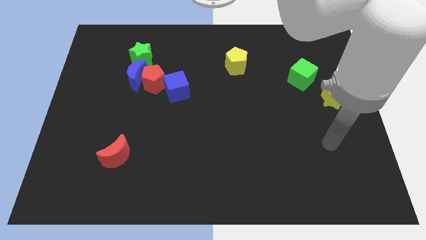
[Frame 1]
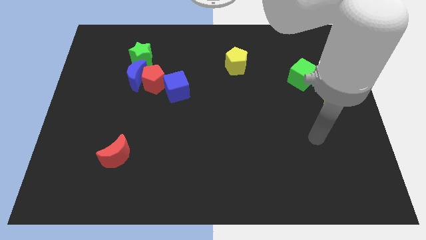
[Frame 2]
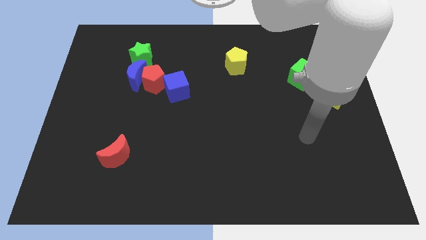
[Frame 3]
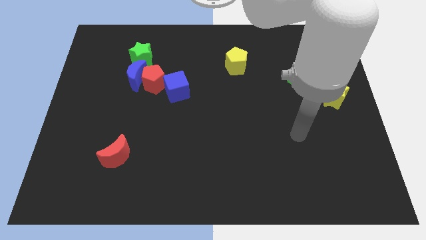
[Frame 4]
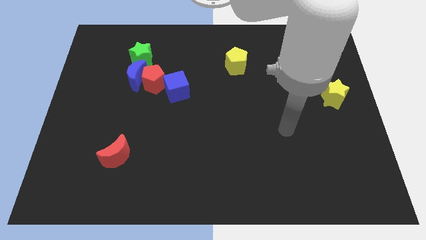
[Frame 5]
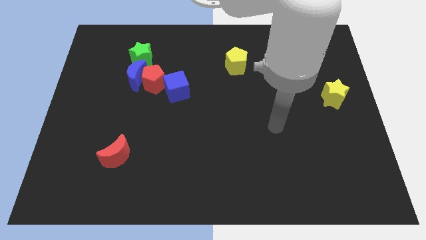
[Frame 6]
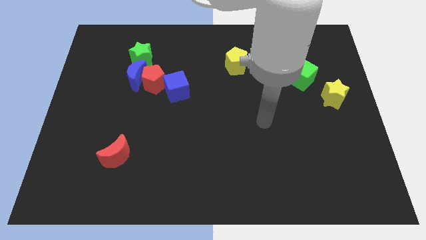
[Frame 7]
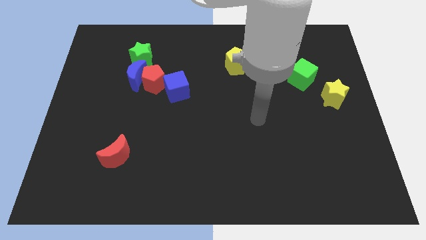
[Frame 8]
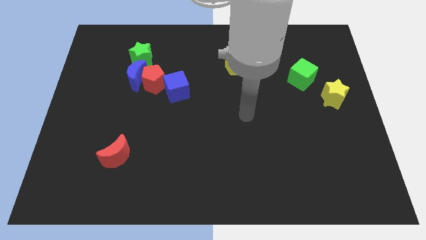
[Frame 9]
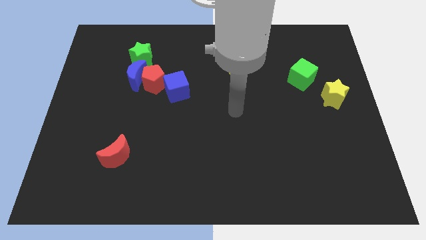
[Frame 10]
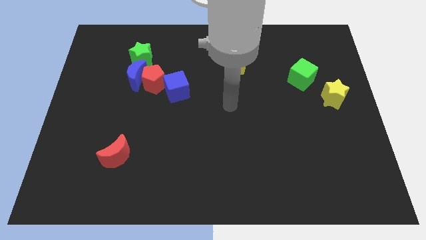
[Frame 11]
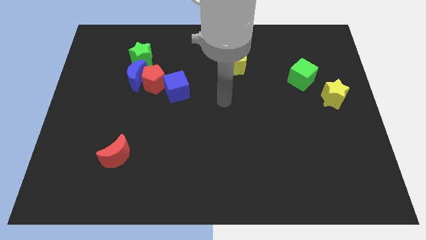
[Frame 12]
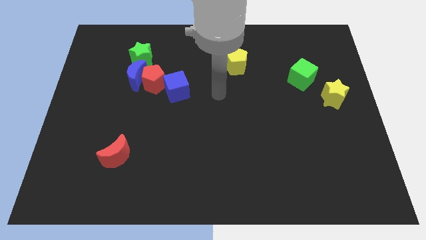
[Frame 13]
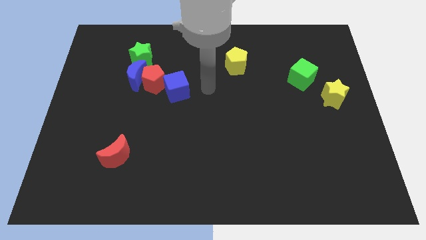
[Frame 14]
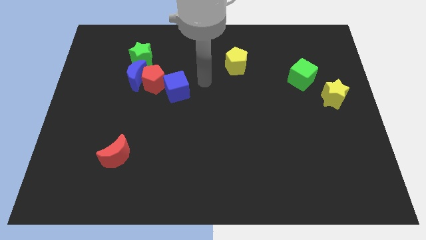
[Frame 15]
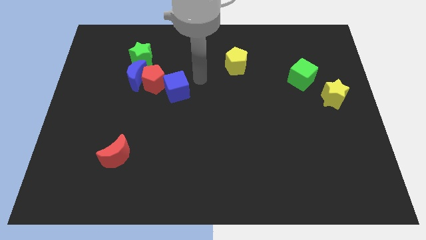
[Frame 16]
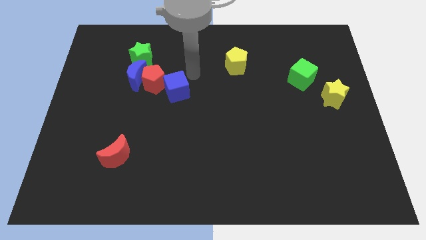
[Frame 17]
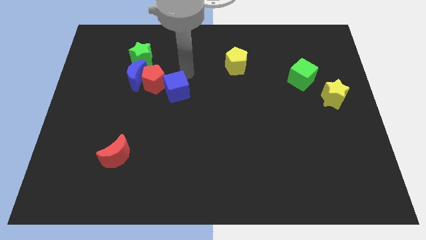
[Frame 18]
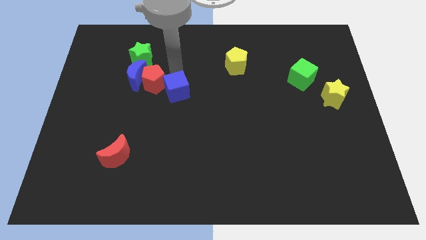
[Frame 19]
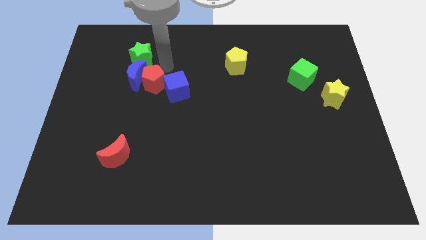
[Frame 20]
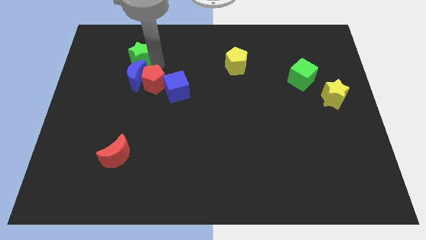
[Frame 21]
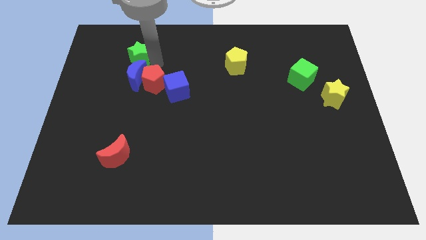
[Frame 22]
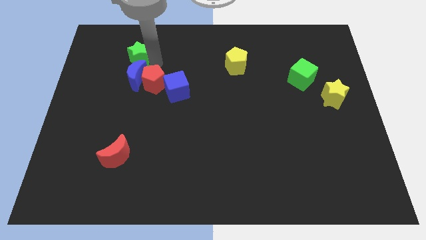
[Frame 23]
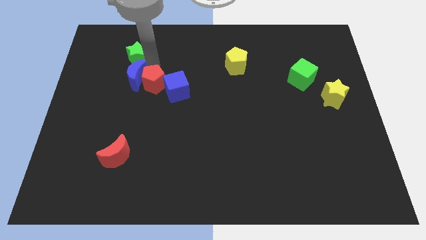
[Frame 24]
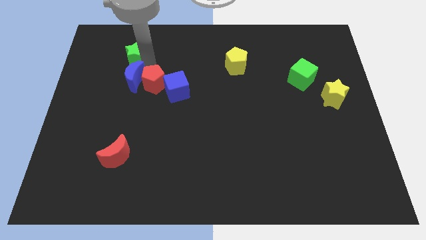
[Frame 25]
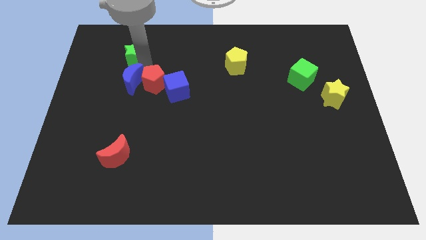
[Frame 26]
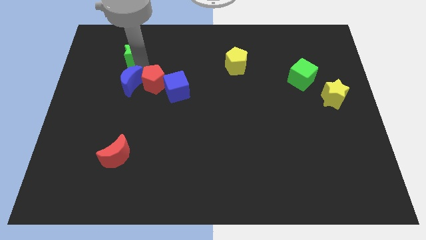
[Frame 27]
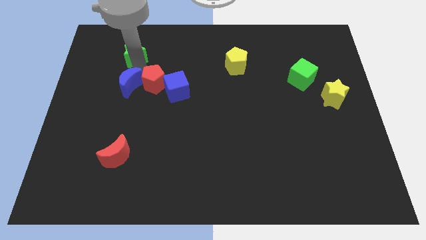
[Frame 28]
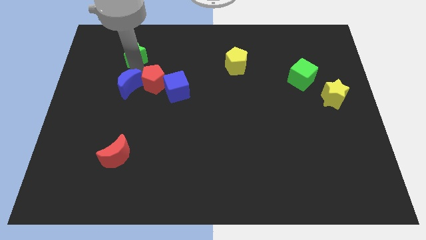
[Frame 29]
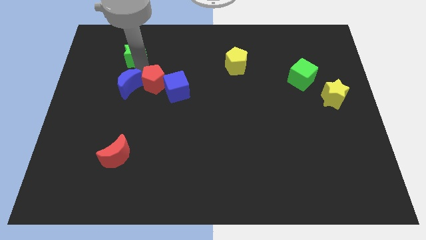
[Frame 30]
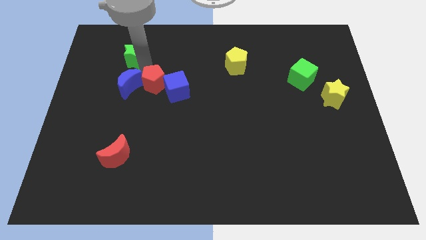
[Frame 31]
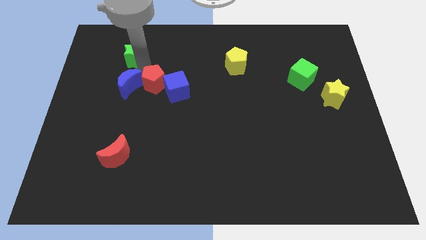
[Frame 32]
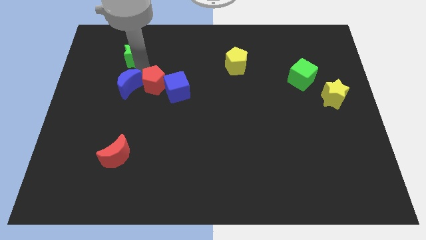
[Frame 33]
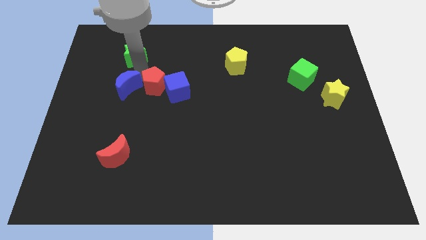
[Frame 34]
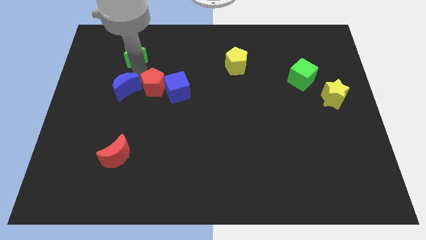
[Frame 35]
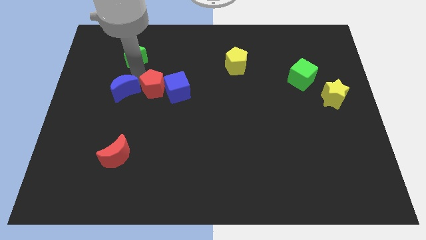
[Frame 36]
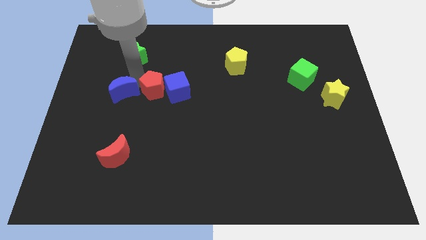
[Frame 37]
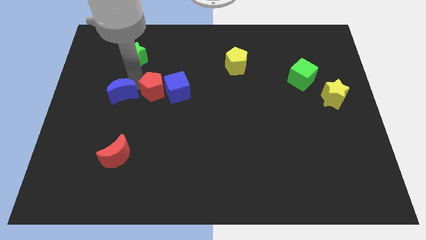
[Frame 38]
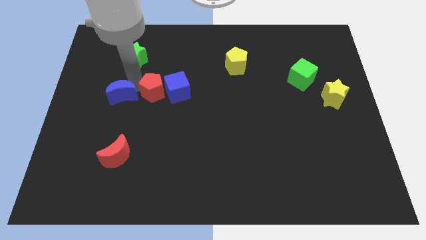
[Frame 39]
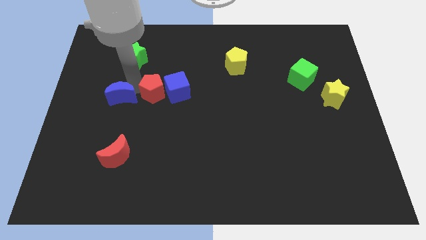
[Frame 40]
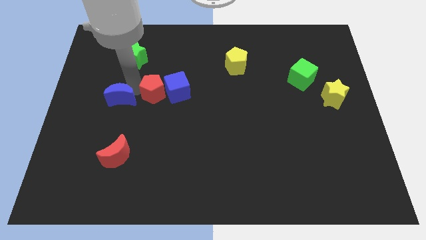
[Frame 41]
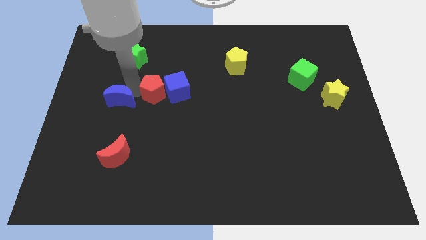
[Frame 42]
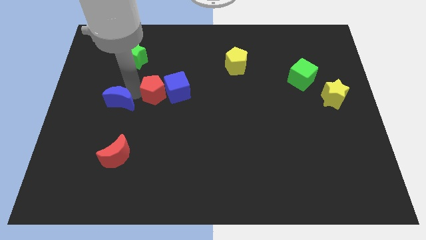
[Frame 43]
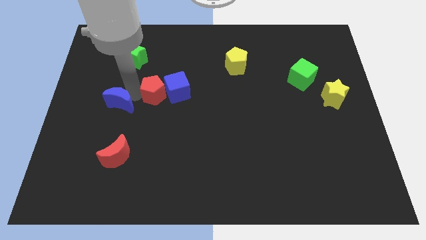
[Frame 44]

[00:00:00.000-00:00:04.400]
pull the blue moon apart from the red pentagon and green star

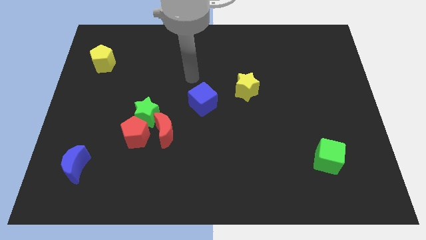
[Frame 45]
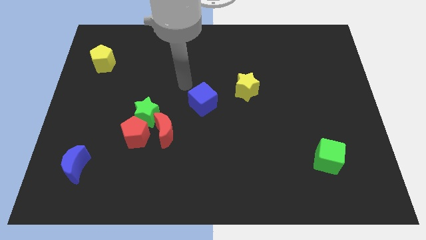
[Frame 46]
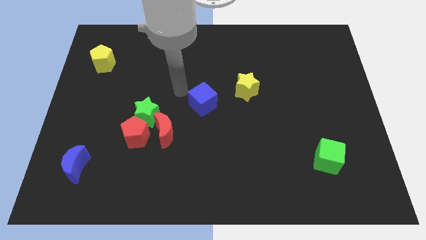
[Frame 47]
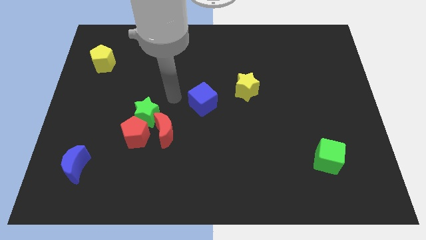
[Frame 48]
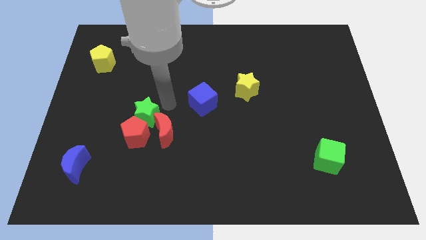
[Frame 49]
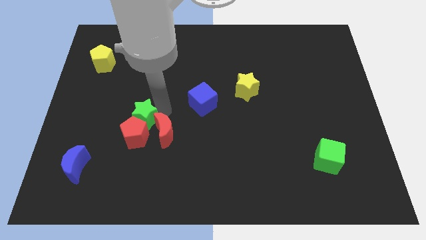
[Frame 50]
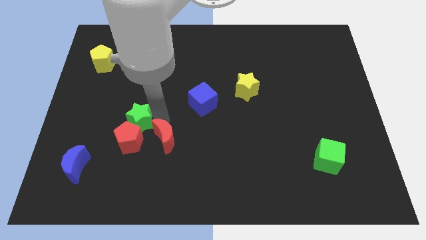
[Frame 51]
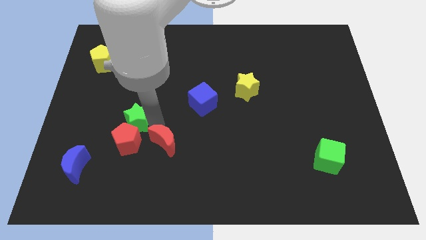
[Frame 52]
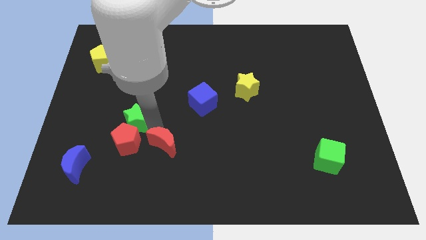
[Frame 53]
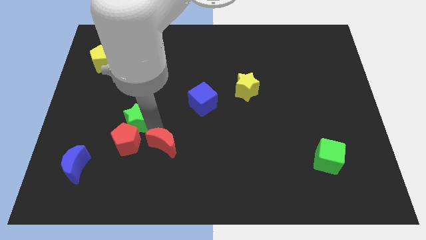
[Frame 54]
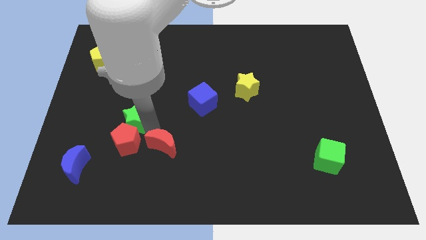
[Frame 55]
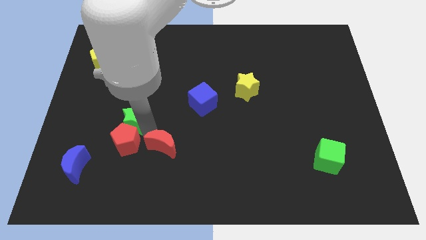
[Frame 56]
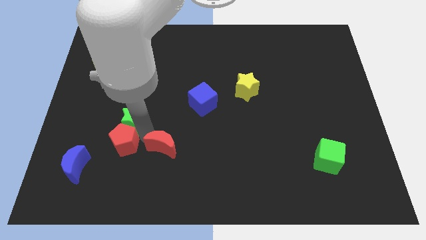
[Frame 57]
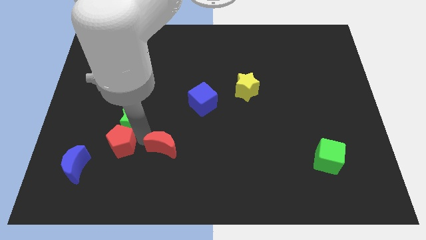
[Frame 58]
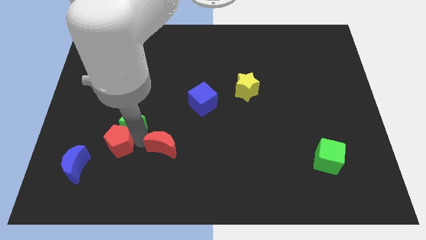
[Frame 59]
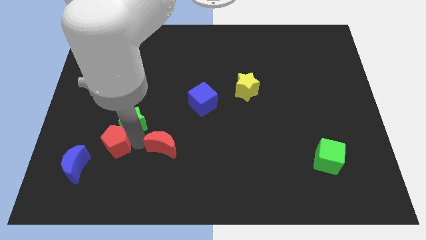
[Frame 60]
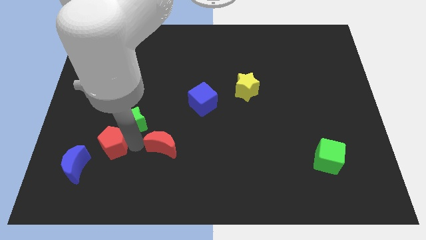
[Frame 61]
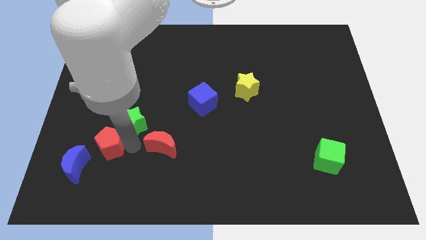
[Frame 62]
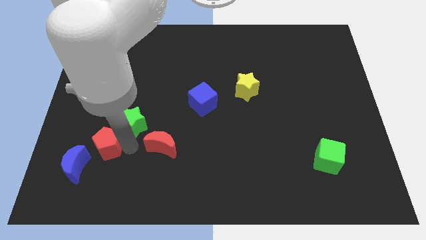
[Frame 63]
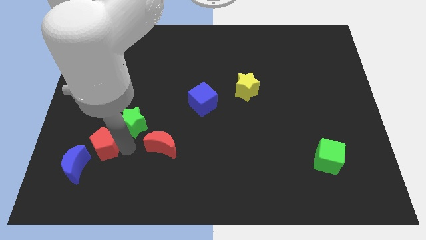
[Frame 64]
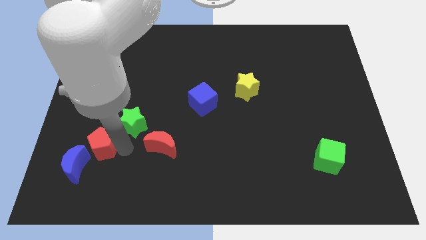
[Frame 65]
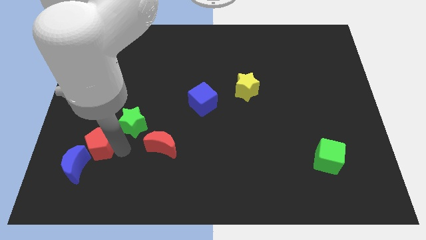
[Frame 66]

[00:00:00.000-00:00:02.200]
pull the red pentagon apart from the green star and red moon

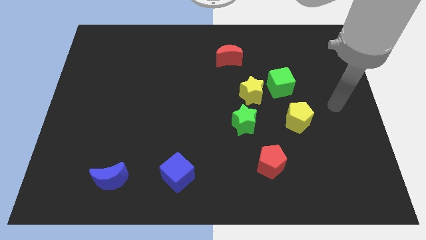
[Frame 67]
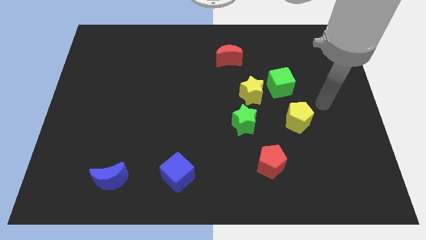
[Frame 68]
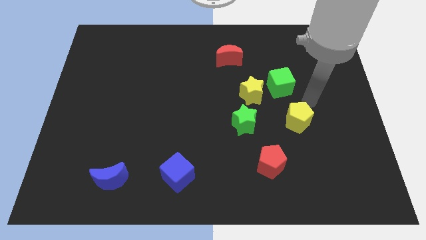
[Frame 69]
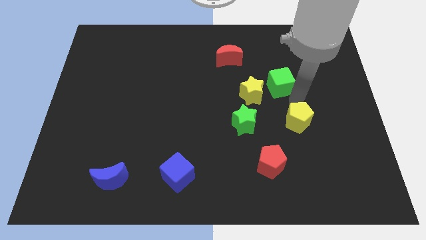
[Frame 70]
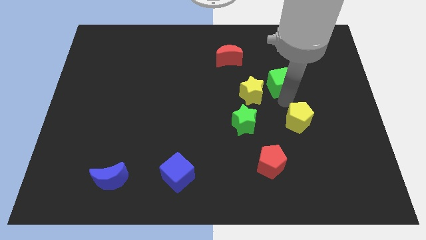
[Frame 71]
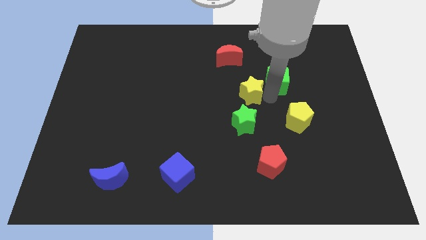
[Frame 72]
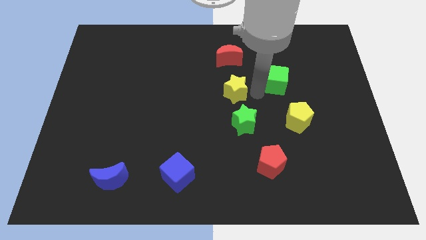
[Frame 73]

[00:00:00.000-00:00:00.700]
separate the green cube from the yellow star

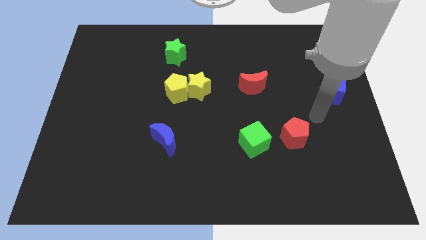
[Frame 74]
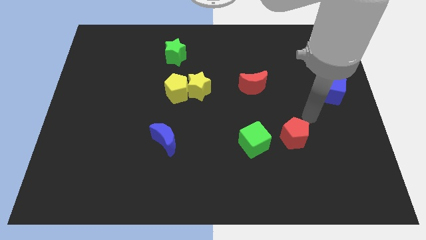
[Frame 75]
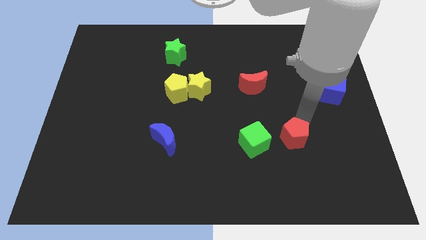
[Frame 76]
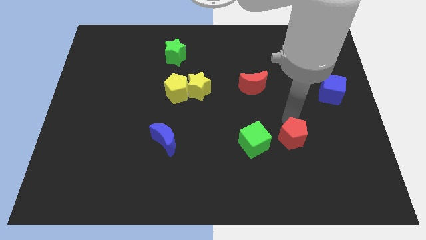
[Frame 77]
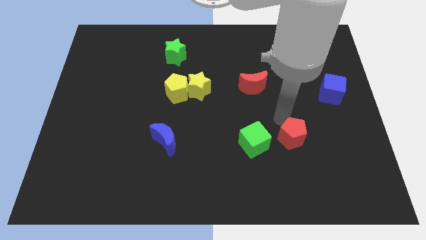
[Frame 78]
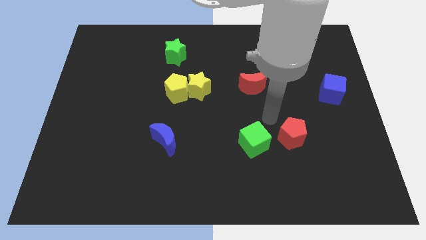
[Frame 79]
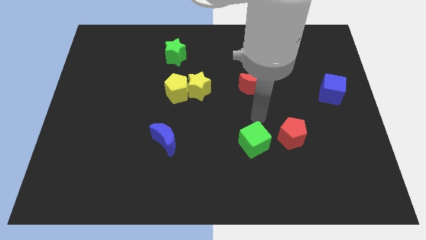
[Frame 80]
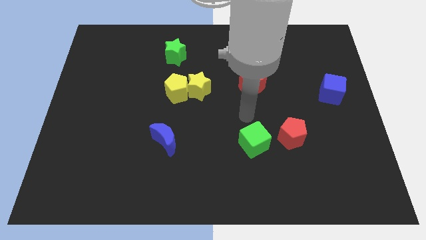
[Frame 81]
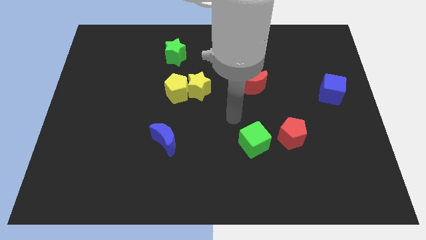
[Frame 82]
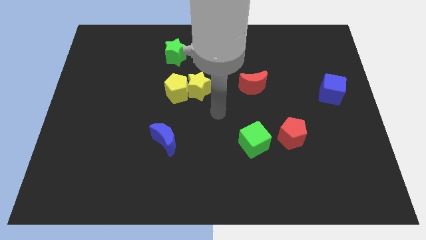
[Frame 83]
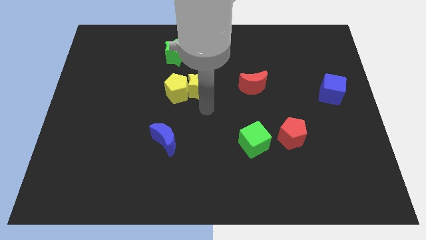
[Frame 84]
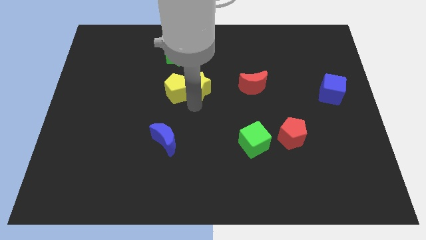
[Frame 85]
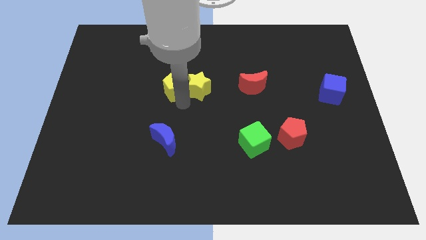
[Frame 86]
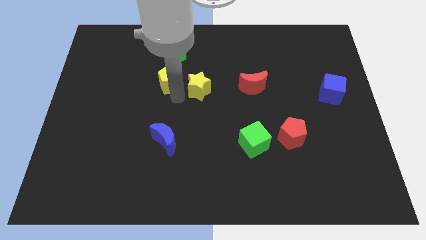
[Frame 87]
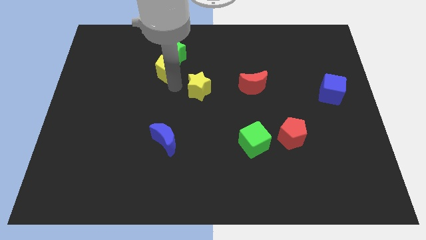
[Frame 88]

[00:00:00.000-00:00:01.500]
separate the yellow star from the yellow pentagon

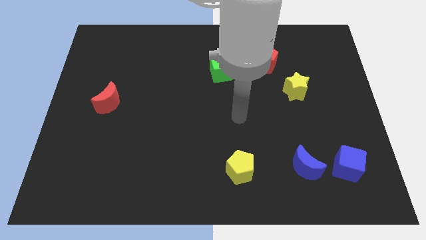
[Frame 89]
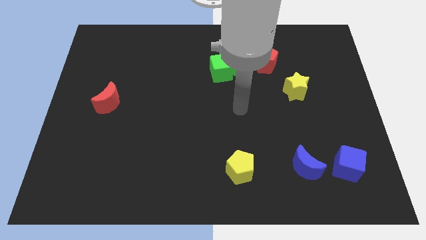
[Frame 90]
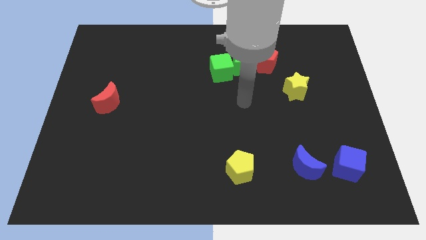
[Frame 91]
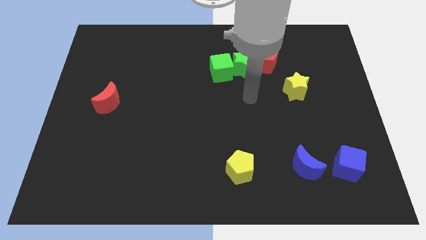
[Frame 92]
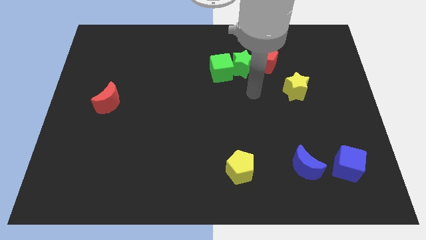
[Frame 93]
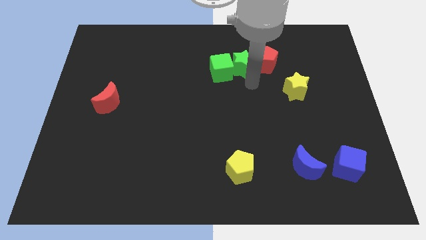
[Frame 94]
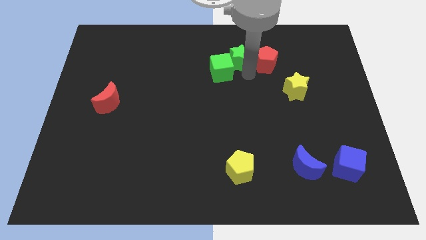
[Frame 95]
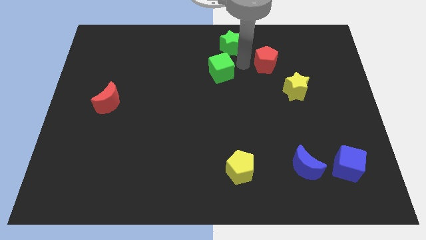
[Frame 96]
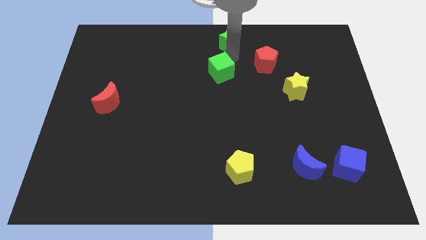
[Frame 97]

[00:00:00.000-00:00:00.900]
pull the green cube apart from the green star
